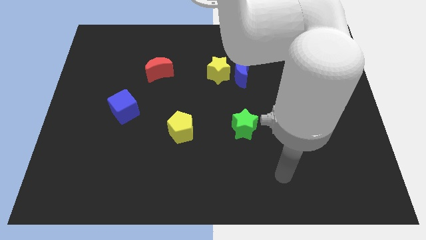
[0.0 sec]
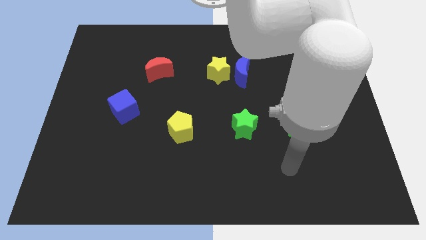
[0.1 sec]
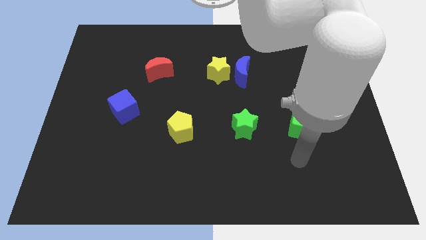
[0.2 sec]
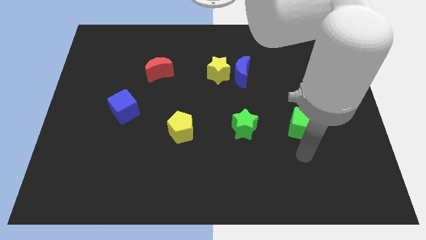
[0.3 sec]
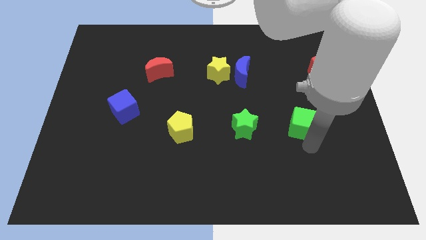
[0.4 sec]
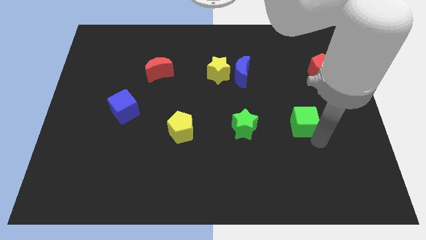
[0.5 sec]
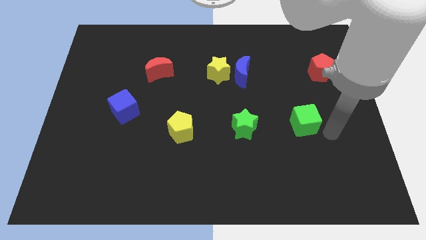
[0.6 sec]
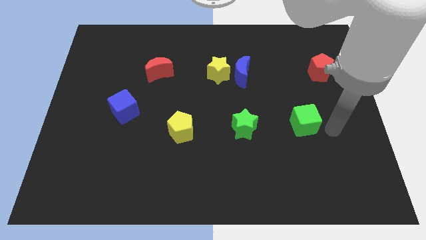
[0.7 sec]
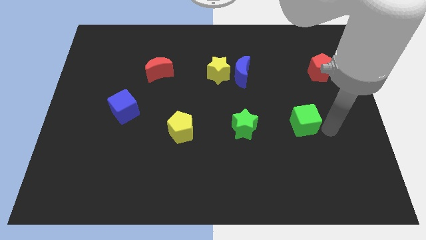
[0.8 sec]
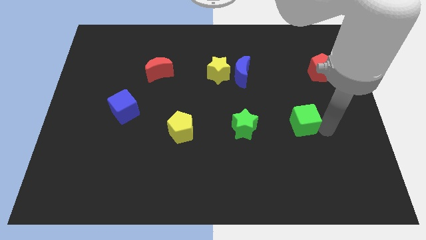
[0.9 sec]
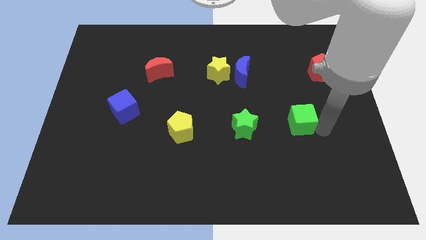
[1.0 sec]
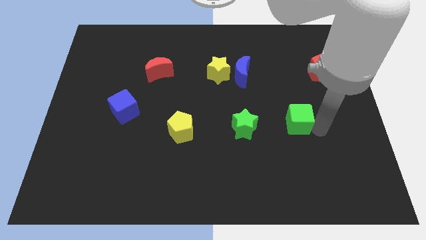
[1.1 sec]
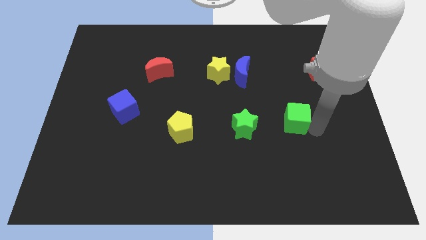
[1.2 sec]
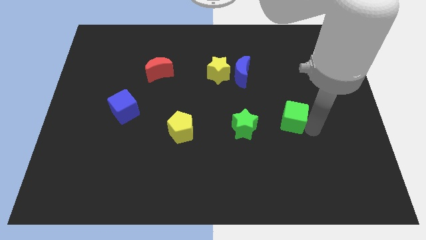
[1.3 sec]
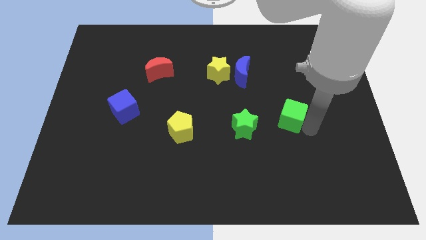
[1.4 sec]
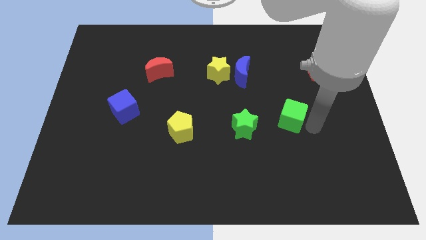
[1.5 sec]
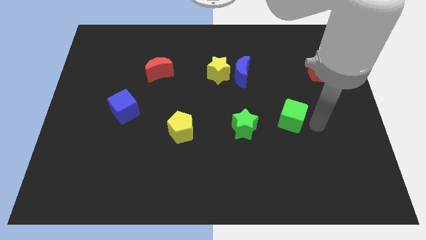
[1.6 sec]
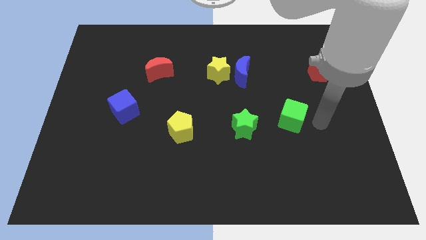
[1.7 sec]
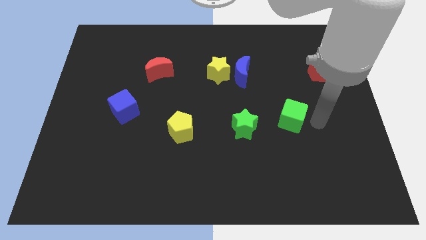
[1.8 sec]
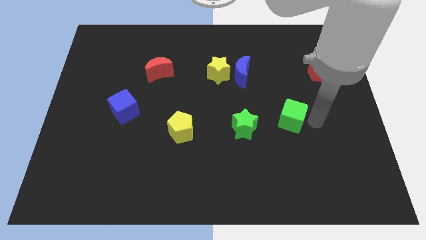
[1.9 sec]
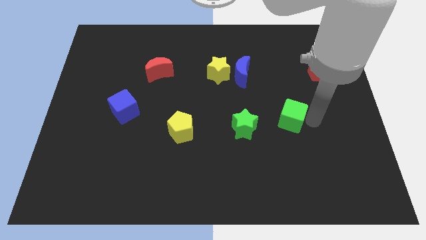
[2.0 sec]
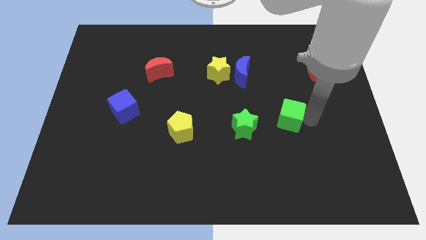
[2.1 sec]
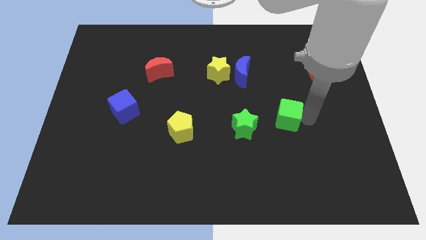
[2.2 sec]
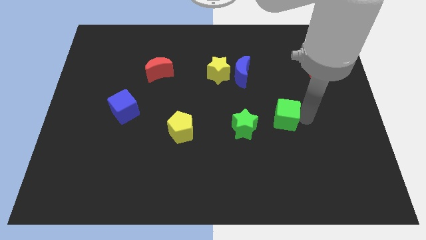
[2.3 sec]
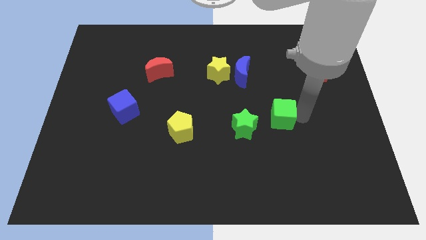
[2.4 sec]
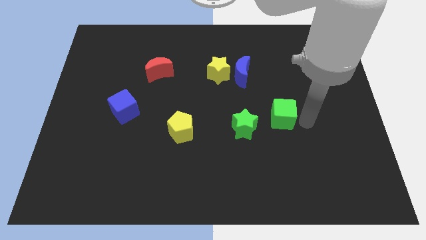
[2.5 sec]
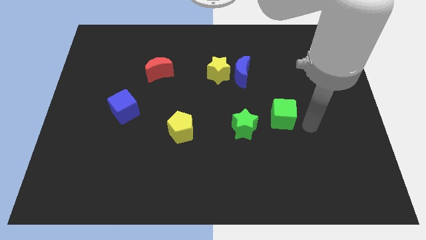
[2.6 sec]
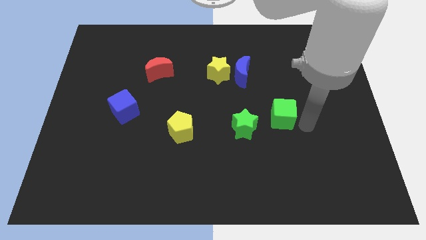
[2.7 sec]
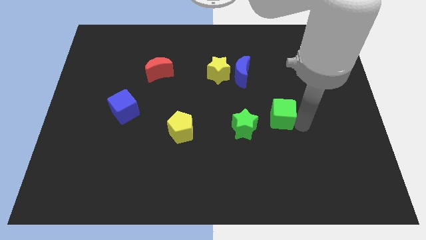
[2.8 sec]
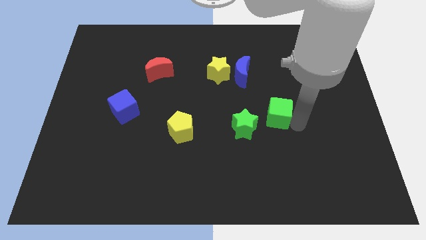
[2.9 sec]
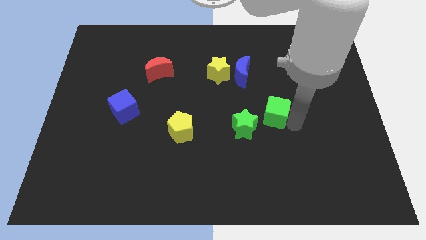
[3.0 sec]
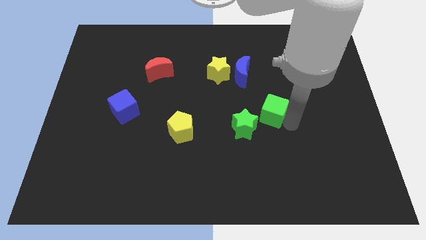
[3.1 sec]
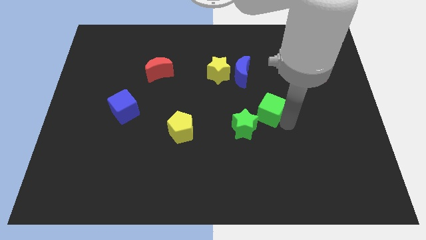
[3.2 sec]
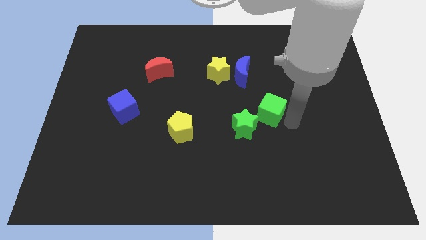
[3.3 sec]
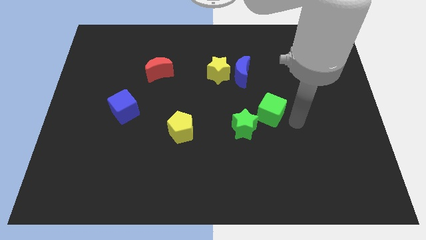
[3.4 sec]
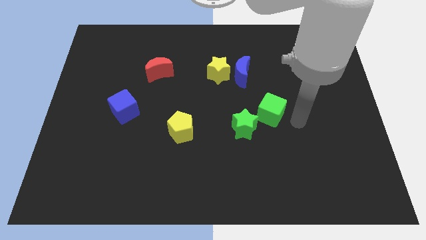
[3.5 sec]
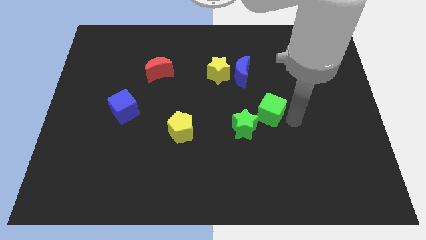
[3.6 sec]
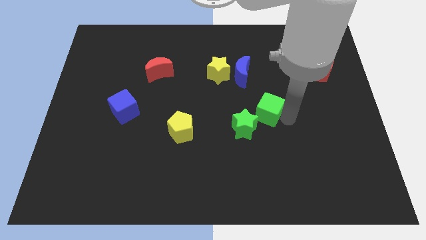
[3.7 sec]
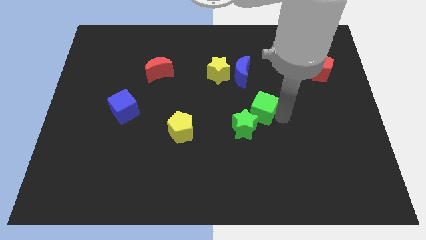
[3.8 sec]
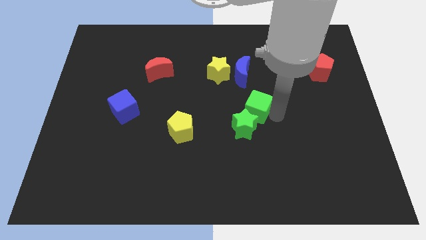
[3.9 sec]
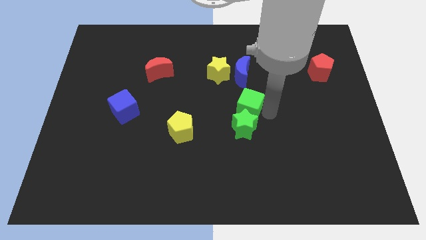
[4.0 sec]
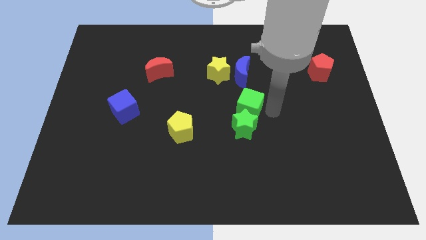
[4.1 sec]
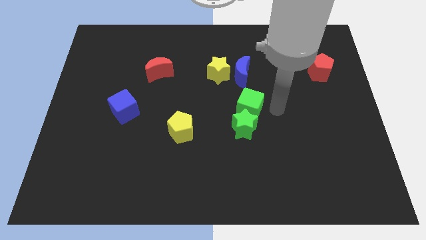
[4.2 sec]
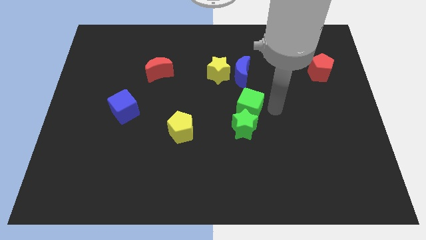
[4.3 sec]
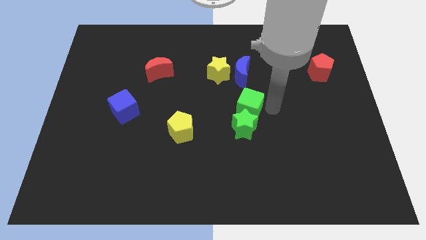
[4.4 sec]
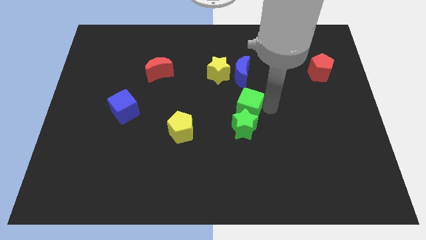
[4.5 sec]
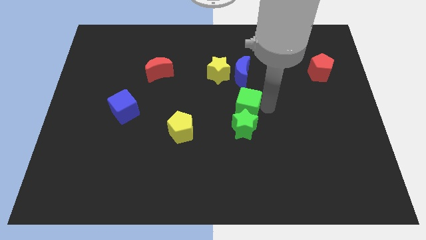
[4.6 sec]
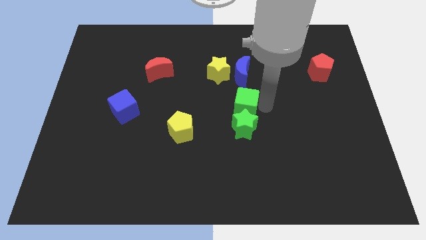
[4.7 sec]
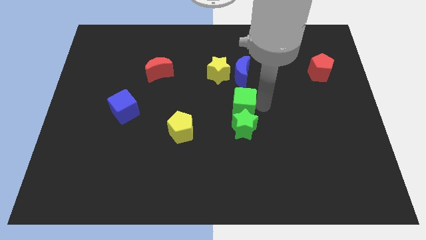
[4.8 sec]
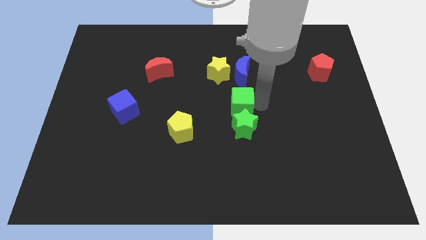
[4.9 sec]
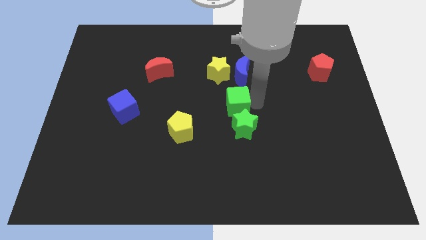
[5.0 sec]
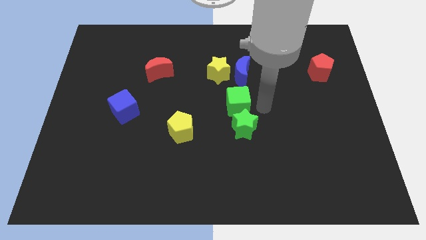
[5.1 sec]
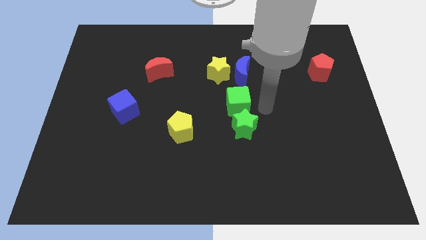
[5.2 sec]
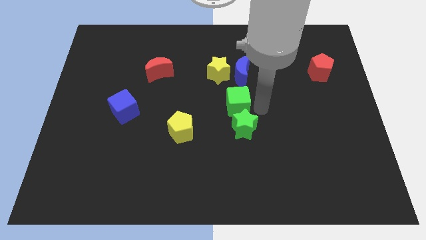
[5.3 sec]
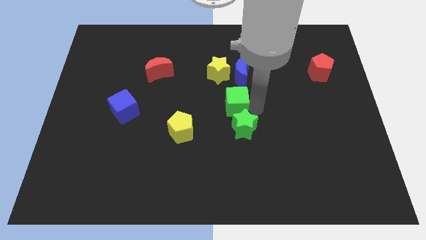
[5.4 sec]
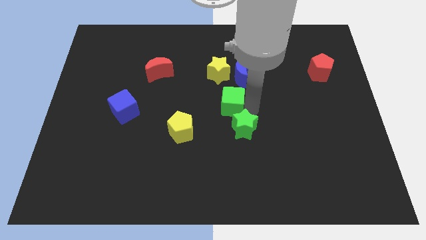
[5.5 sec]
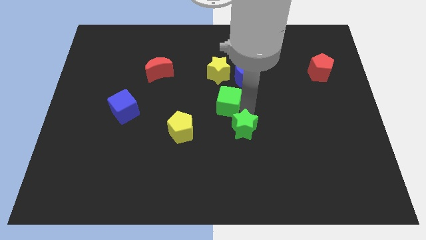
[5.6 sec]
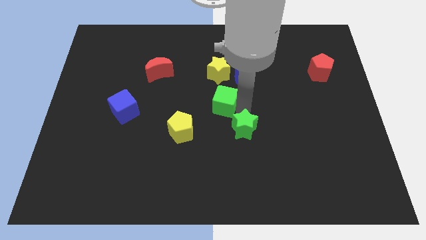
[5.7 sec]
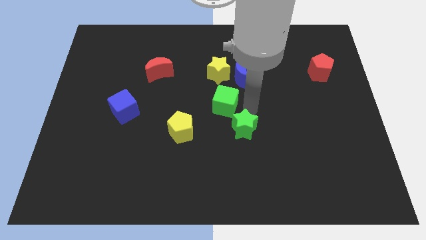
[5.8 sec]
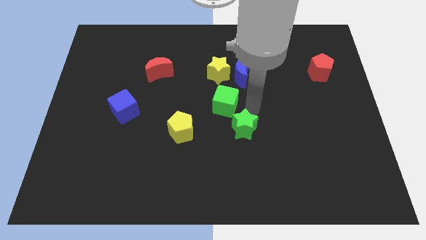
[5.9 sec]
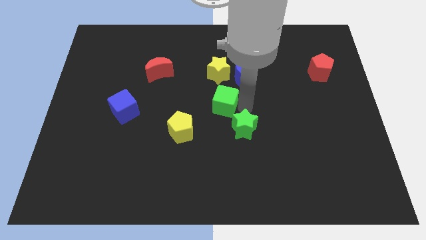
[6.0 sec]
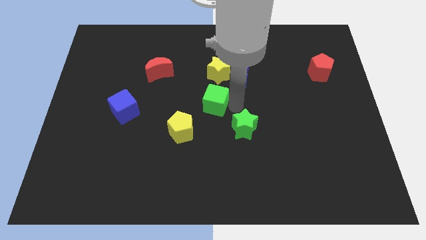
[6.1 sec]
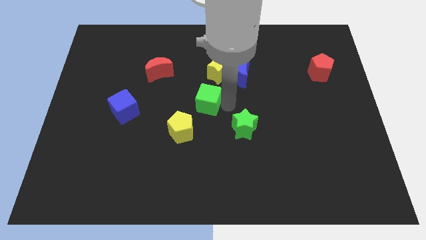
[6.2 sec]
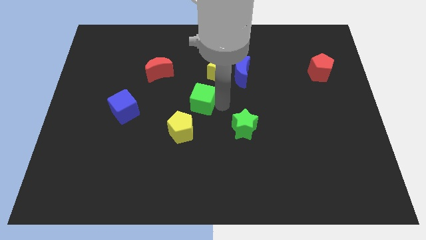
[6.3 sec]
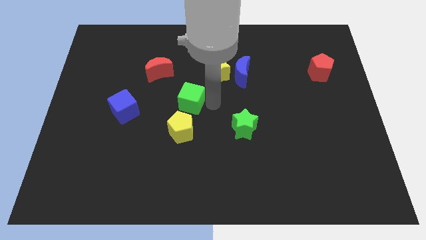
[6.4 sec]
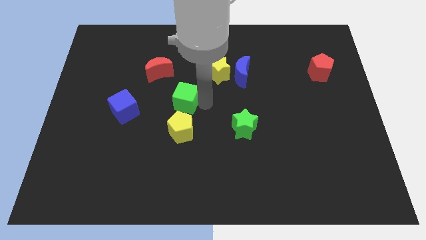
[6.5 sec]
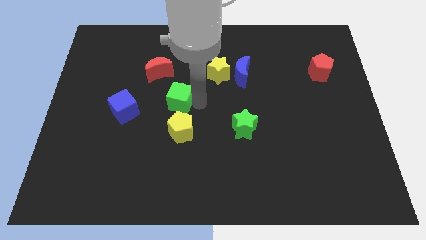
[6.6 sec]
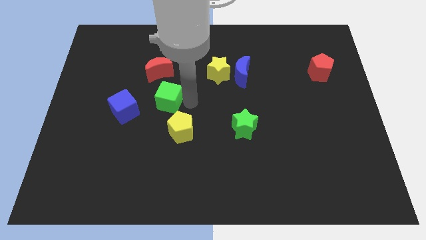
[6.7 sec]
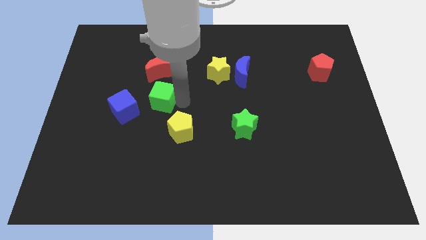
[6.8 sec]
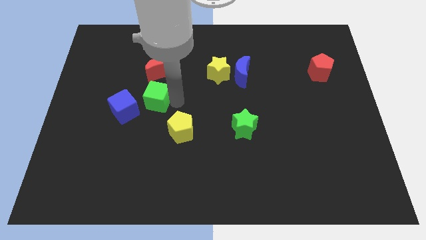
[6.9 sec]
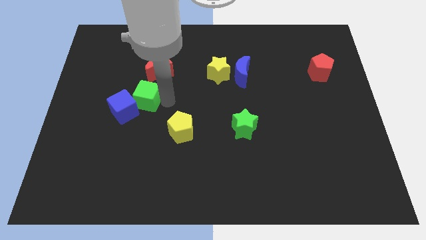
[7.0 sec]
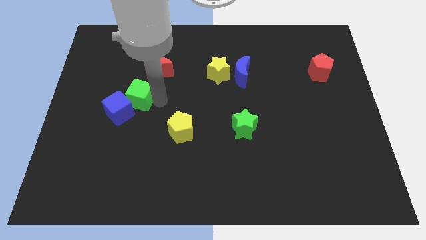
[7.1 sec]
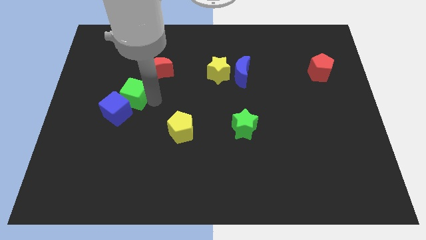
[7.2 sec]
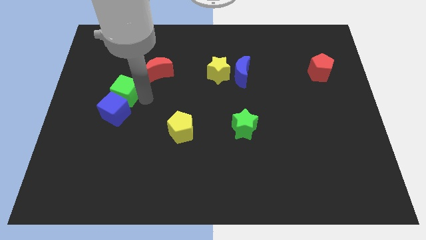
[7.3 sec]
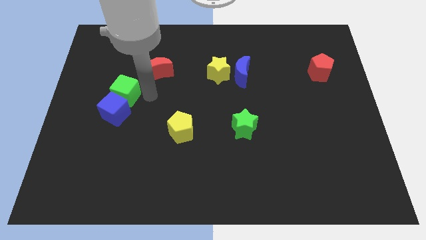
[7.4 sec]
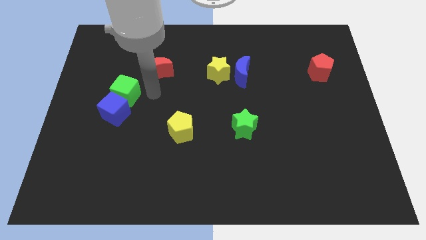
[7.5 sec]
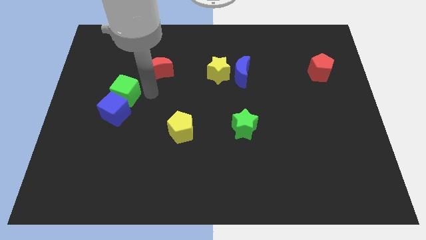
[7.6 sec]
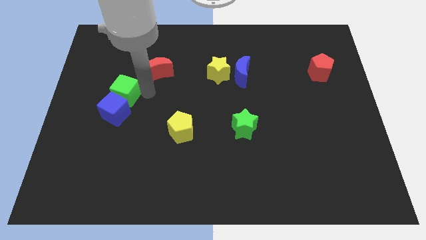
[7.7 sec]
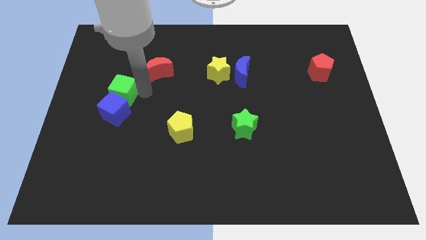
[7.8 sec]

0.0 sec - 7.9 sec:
push the green cube to the top left of the blue cube
